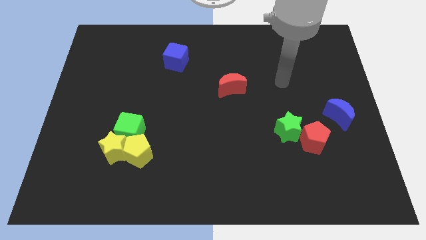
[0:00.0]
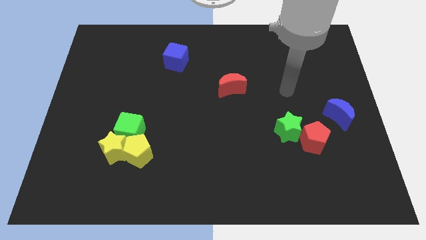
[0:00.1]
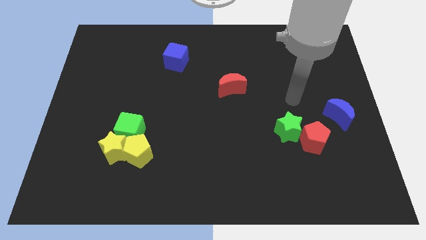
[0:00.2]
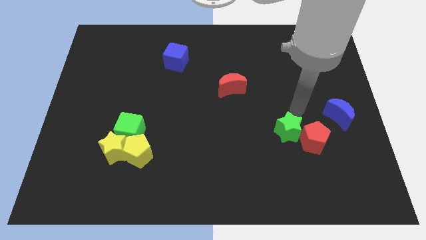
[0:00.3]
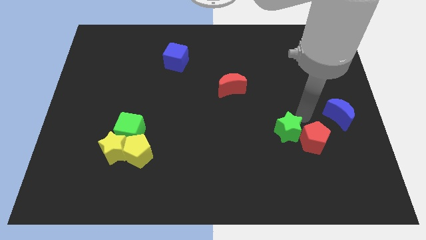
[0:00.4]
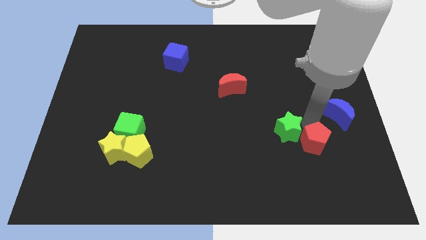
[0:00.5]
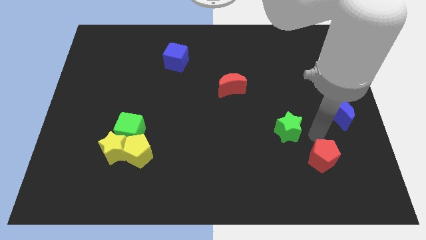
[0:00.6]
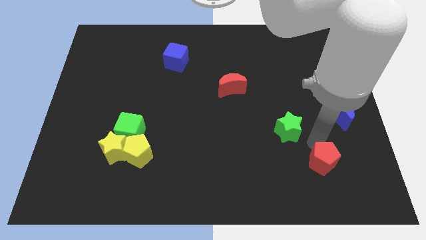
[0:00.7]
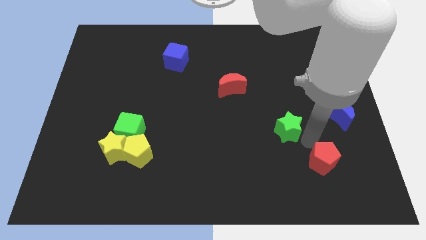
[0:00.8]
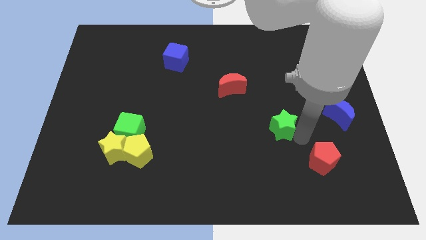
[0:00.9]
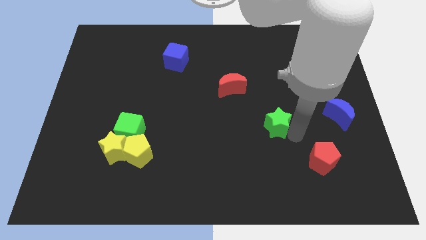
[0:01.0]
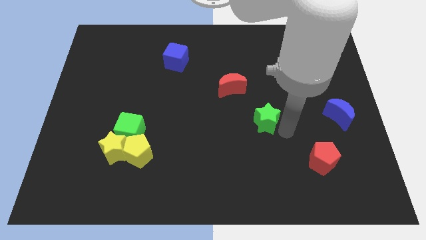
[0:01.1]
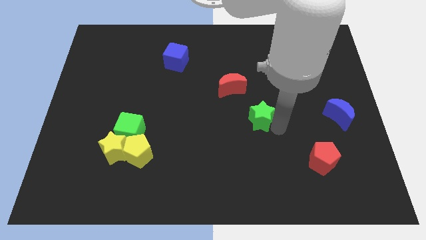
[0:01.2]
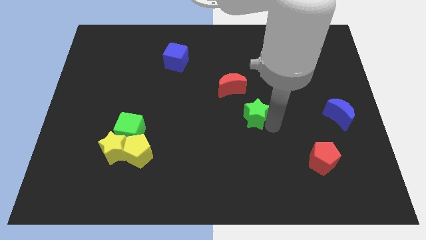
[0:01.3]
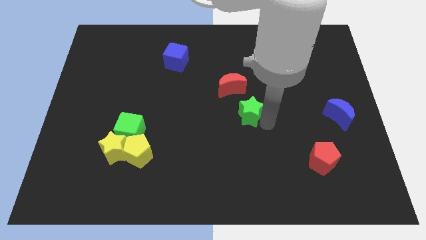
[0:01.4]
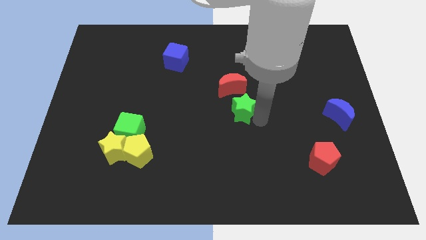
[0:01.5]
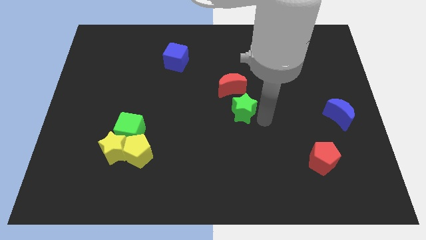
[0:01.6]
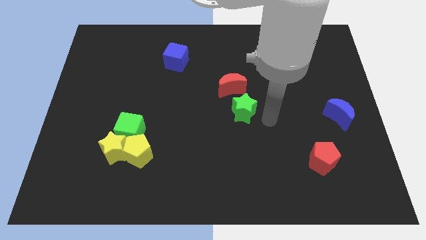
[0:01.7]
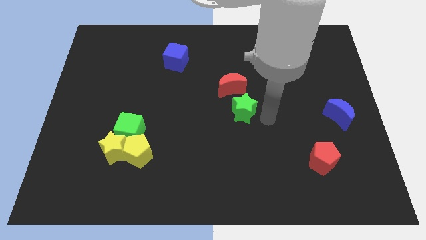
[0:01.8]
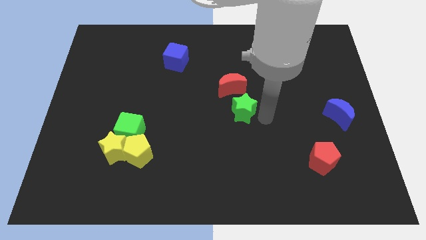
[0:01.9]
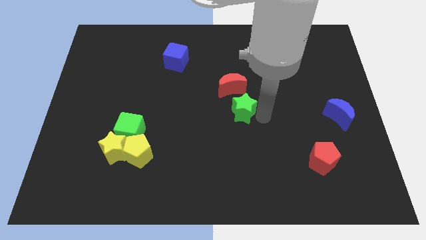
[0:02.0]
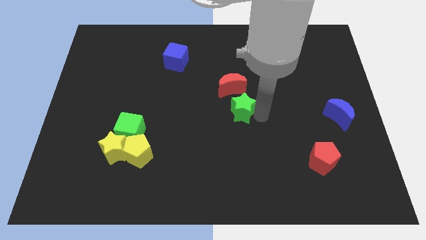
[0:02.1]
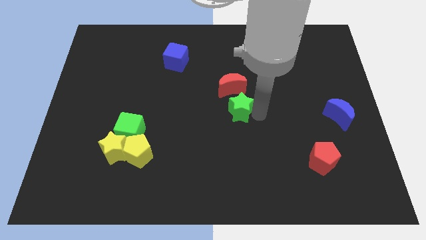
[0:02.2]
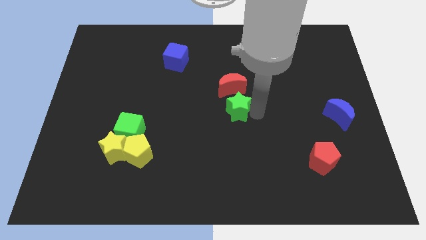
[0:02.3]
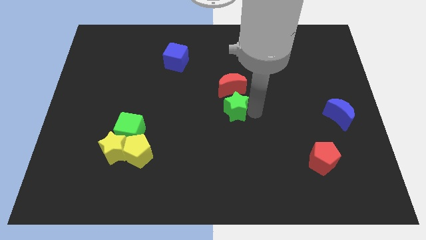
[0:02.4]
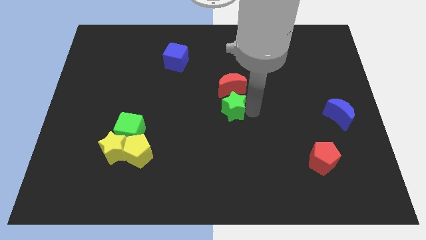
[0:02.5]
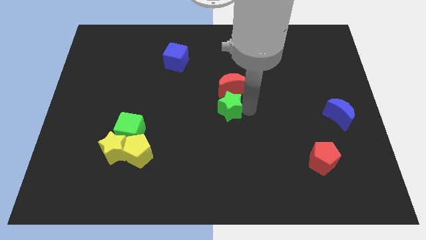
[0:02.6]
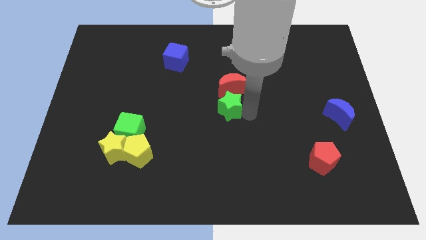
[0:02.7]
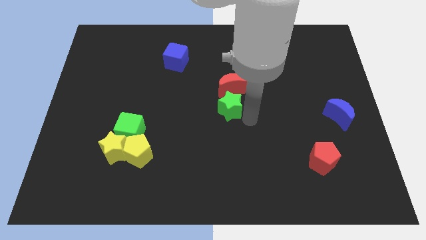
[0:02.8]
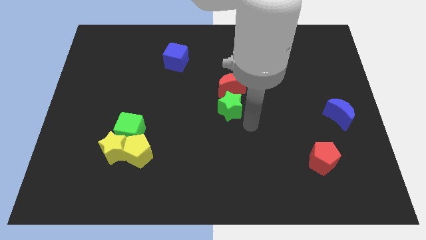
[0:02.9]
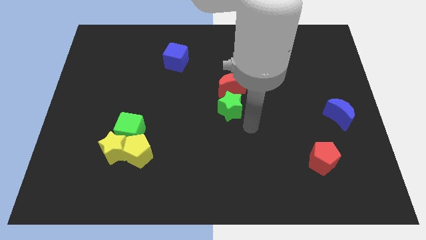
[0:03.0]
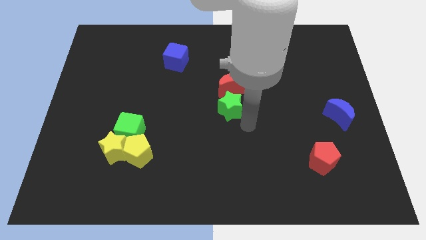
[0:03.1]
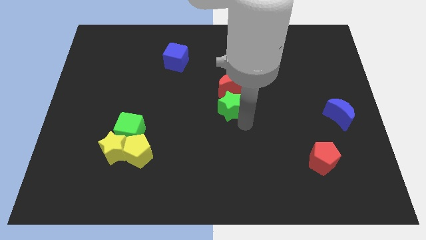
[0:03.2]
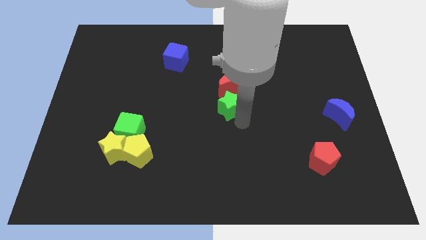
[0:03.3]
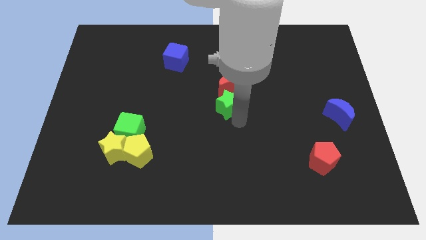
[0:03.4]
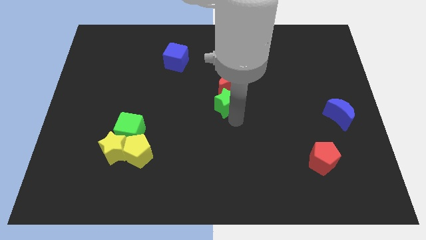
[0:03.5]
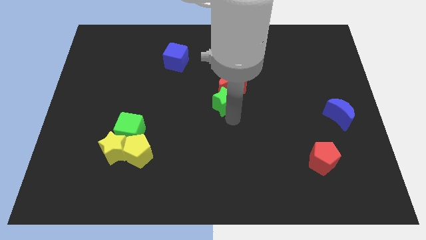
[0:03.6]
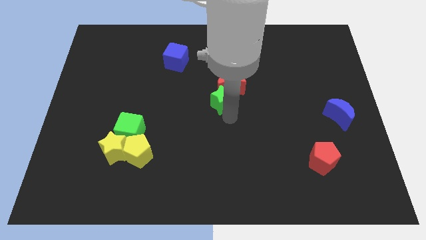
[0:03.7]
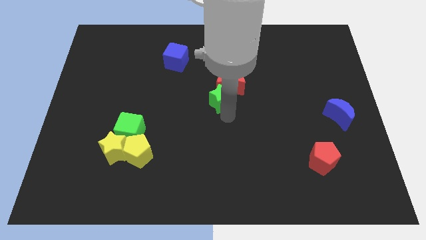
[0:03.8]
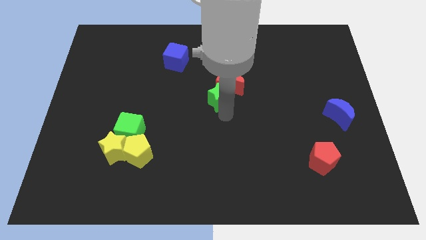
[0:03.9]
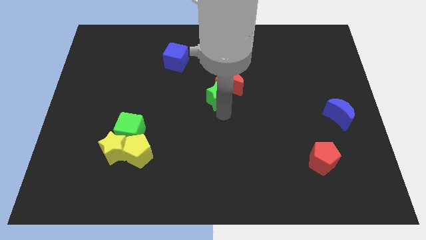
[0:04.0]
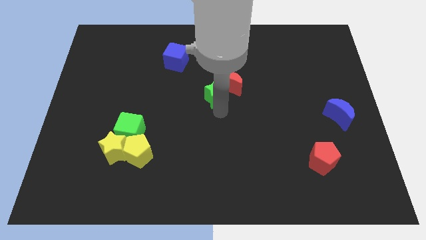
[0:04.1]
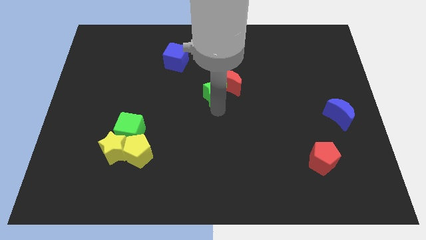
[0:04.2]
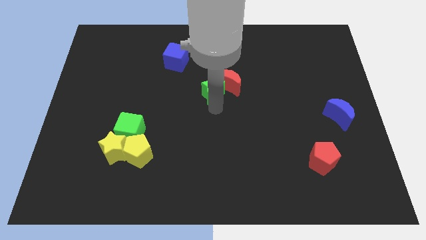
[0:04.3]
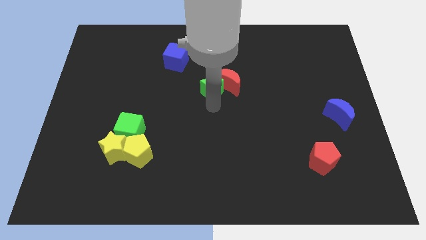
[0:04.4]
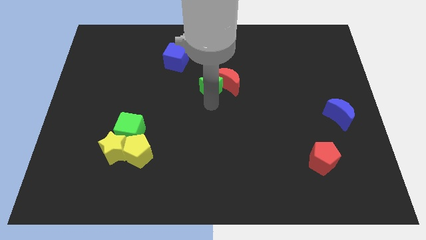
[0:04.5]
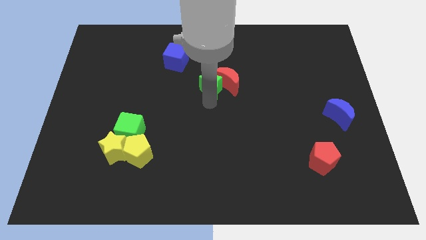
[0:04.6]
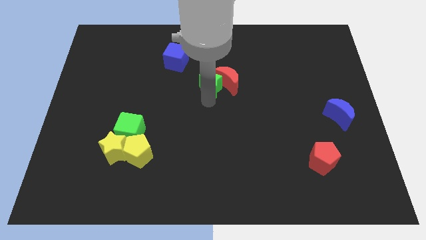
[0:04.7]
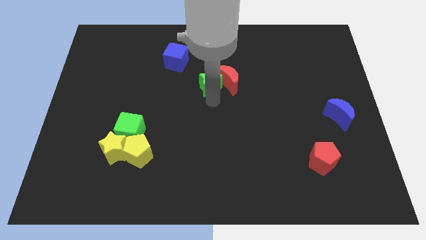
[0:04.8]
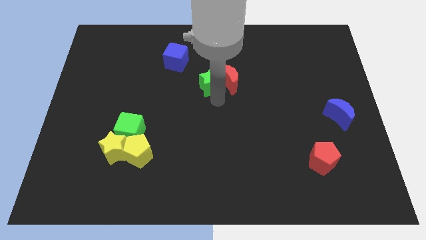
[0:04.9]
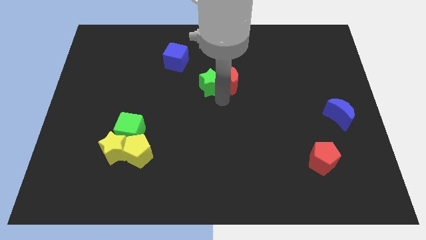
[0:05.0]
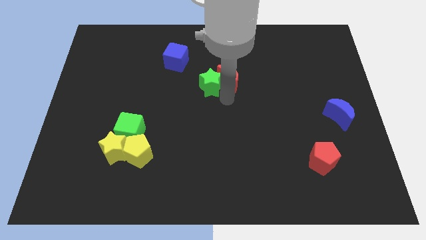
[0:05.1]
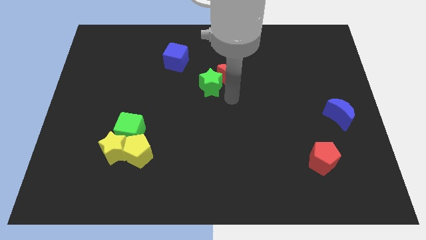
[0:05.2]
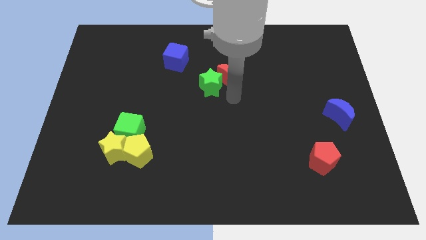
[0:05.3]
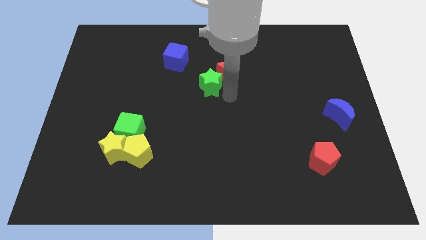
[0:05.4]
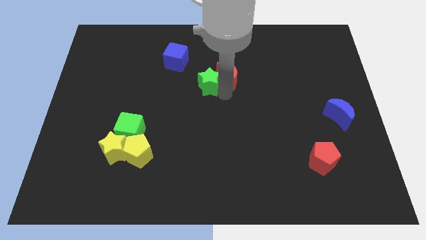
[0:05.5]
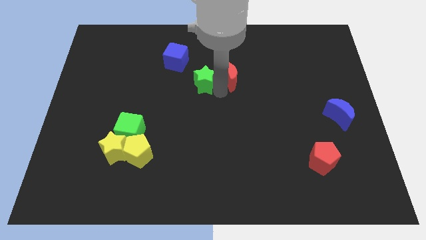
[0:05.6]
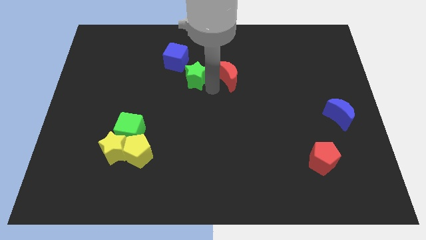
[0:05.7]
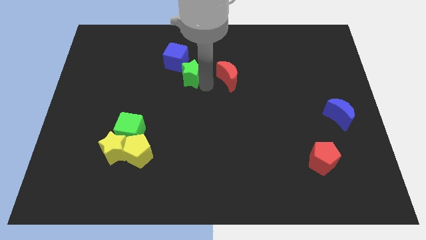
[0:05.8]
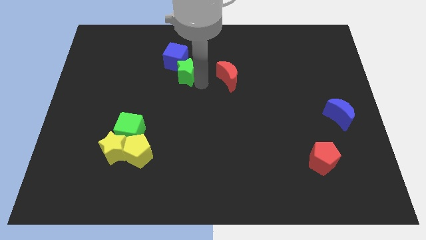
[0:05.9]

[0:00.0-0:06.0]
move the green star close to the blue cube

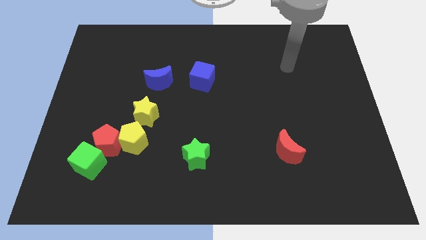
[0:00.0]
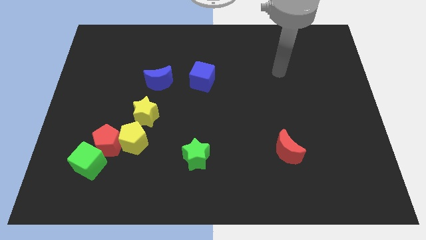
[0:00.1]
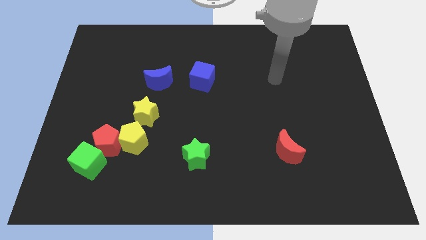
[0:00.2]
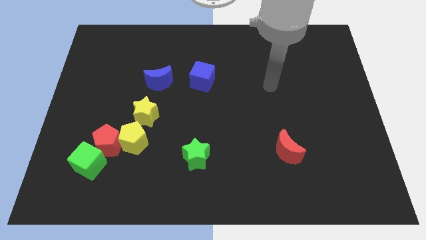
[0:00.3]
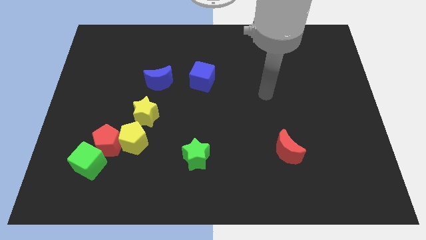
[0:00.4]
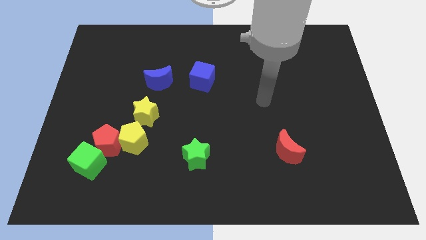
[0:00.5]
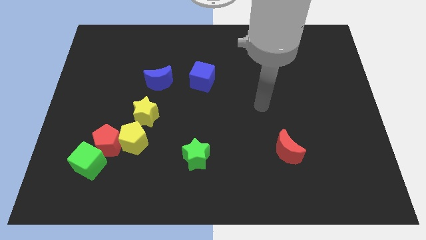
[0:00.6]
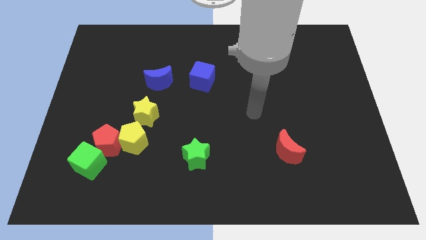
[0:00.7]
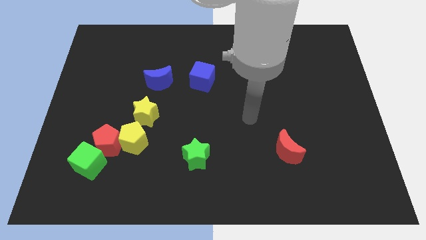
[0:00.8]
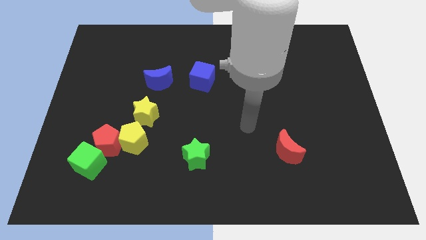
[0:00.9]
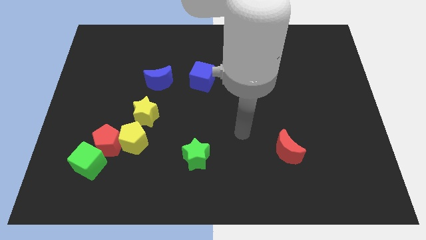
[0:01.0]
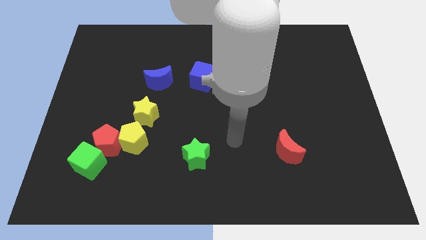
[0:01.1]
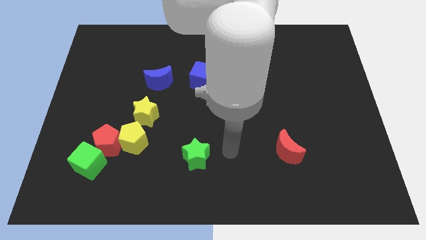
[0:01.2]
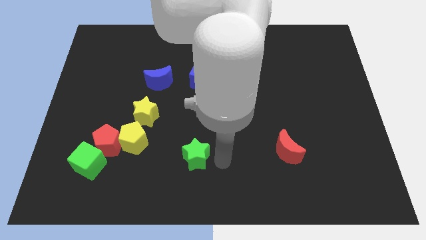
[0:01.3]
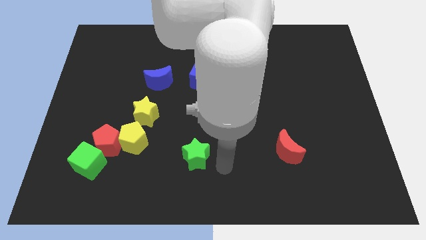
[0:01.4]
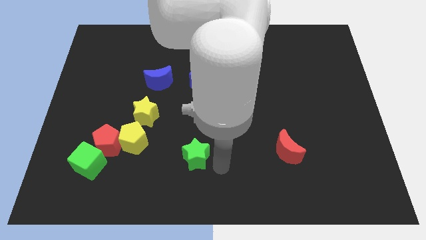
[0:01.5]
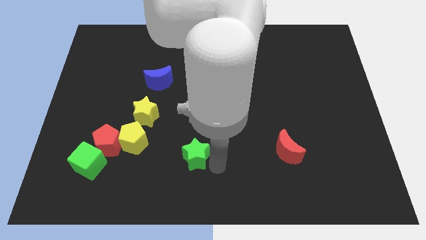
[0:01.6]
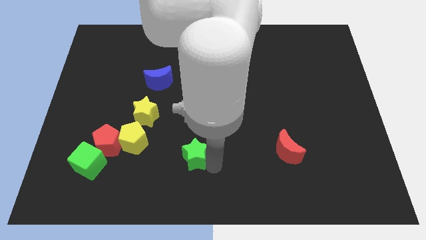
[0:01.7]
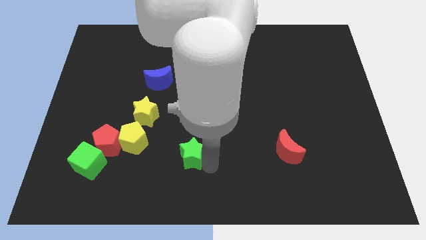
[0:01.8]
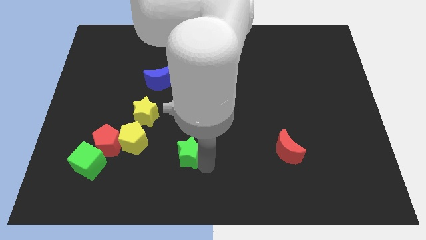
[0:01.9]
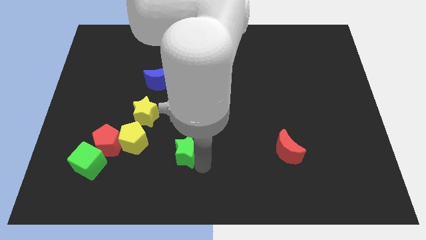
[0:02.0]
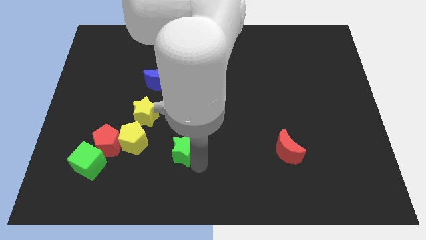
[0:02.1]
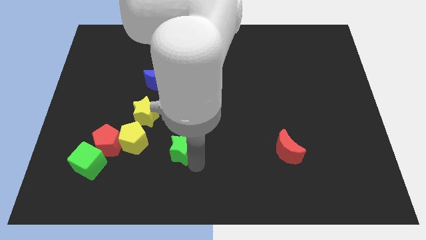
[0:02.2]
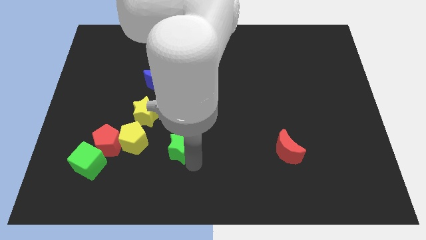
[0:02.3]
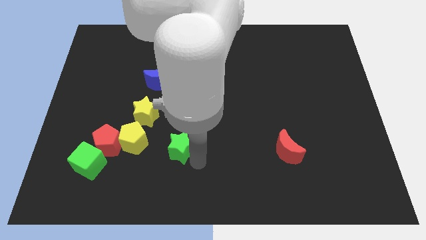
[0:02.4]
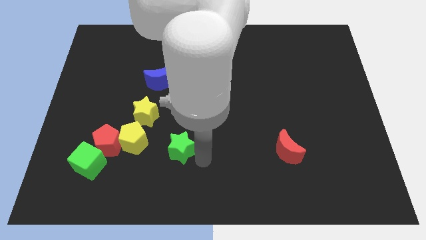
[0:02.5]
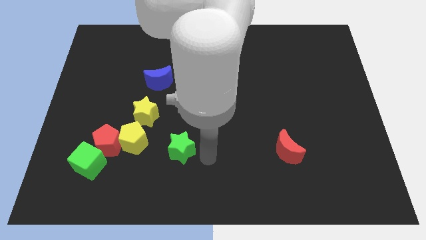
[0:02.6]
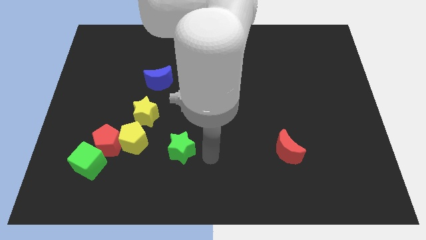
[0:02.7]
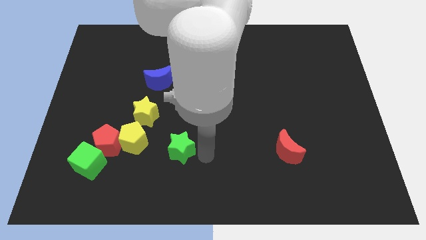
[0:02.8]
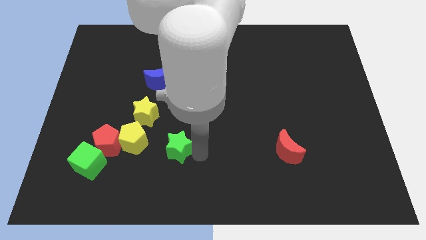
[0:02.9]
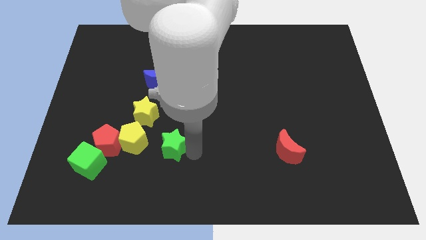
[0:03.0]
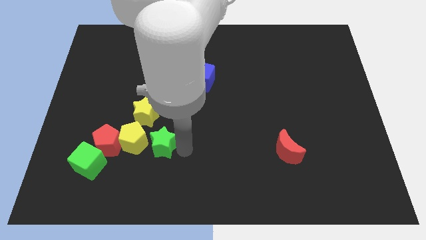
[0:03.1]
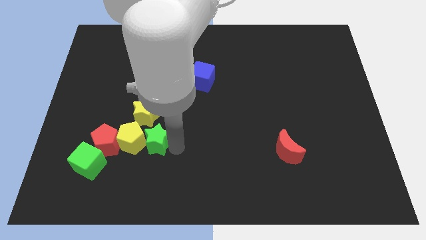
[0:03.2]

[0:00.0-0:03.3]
move the green star next to the yellow pentagon
